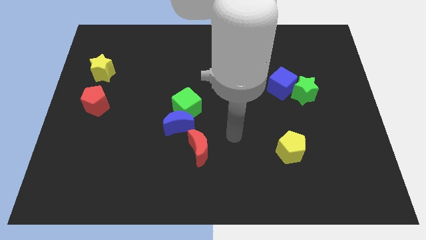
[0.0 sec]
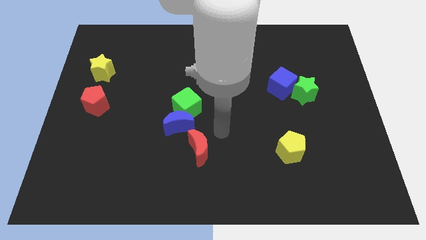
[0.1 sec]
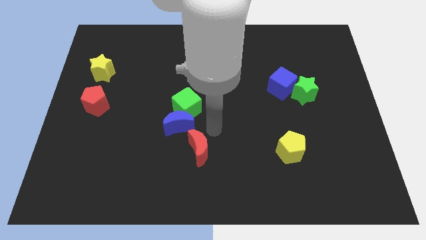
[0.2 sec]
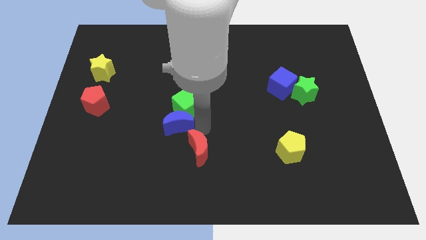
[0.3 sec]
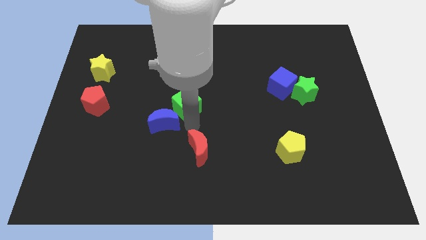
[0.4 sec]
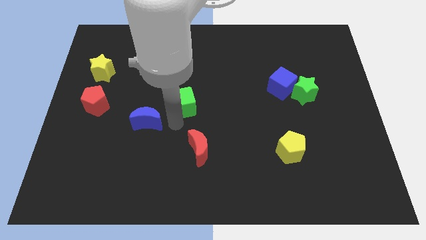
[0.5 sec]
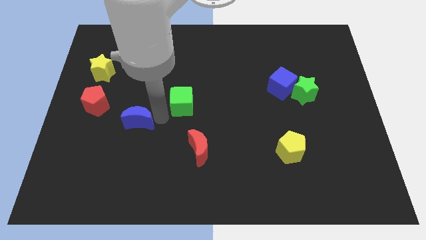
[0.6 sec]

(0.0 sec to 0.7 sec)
move the green cube away from the blue moon

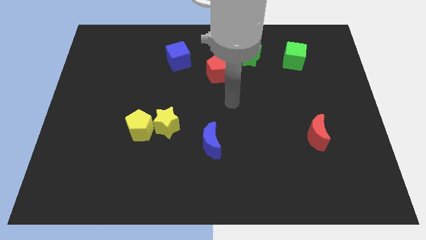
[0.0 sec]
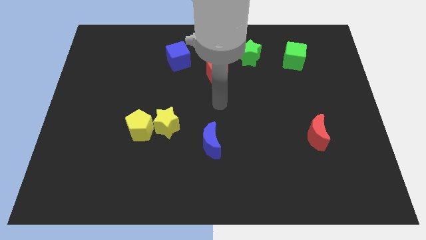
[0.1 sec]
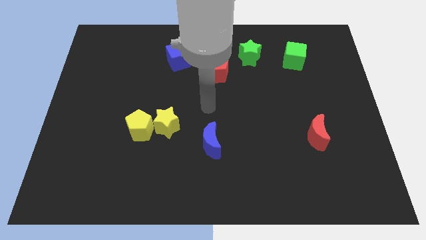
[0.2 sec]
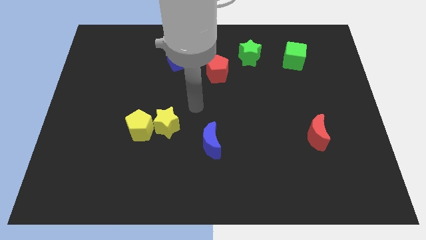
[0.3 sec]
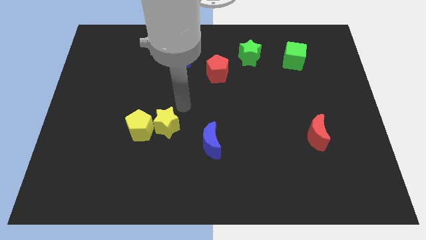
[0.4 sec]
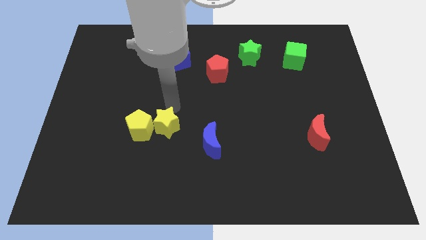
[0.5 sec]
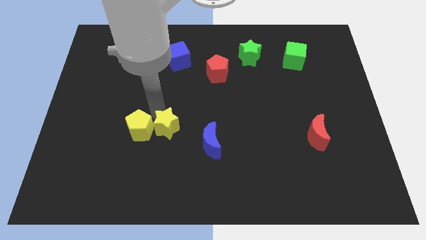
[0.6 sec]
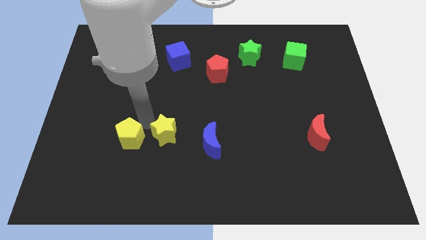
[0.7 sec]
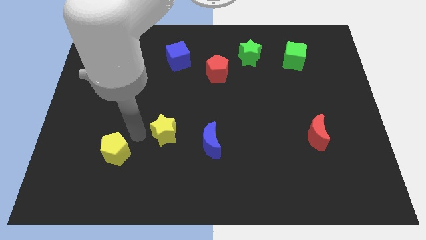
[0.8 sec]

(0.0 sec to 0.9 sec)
separate the yellow star from the yellow pentagon

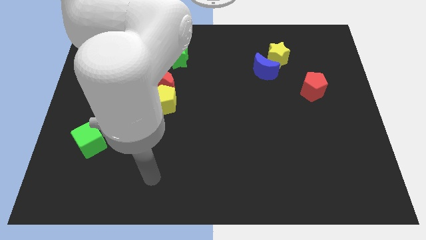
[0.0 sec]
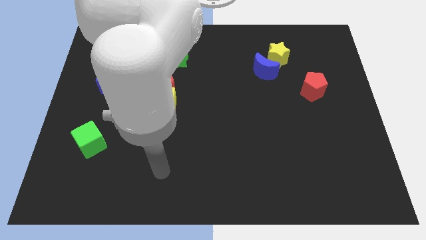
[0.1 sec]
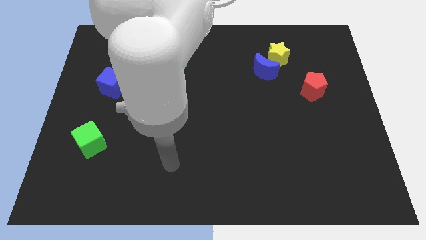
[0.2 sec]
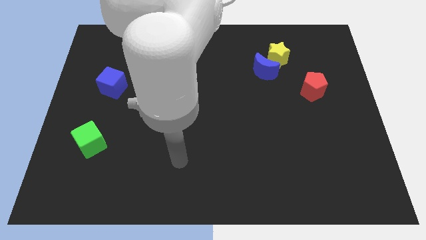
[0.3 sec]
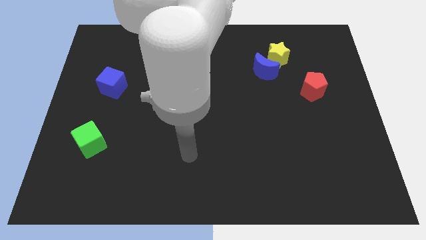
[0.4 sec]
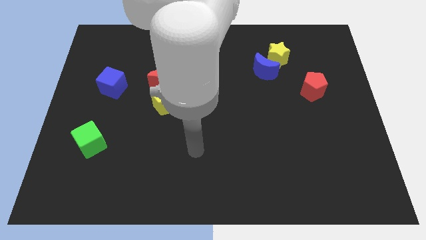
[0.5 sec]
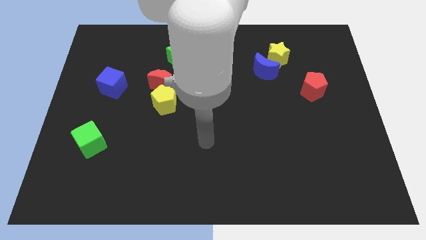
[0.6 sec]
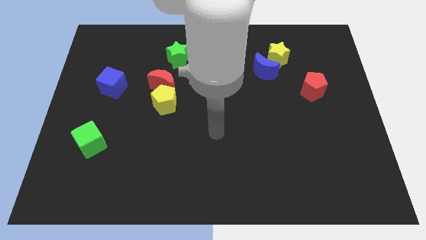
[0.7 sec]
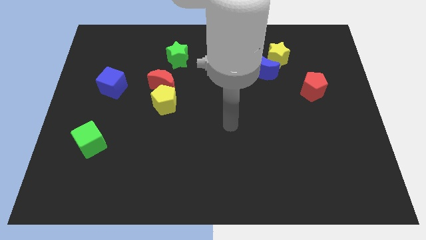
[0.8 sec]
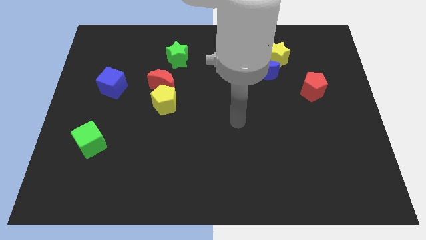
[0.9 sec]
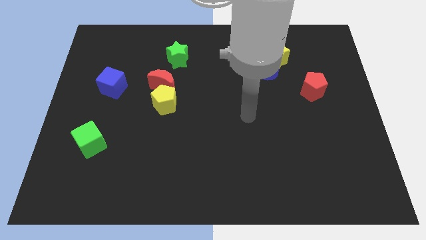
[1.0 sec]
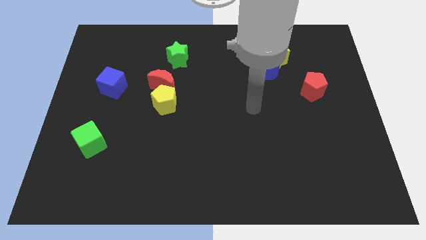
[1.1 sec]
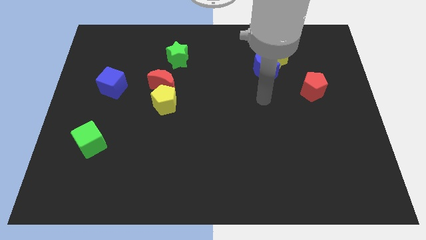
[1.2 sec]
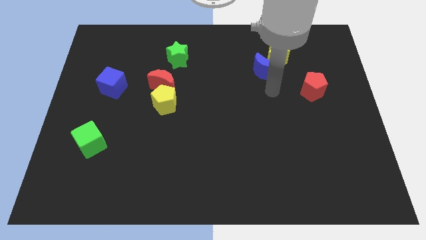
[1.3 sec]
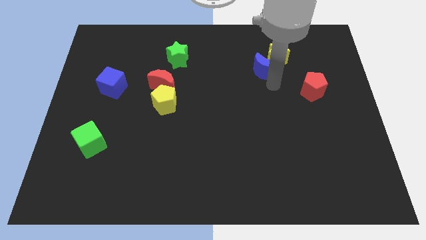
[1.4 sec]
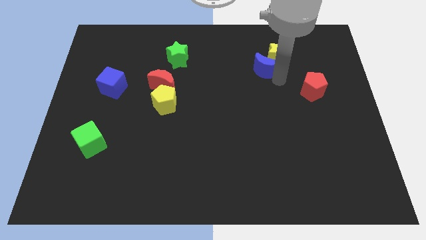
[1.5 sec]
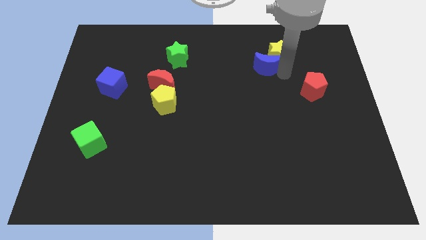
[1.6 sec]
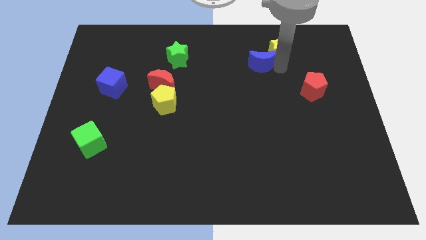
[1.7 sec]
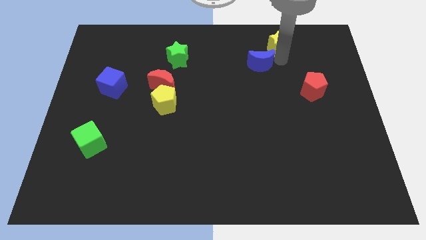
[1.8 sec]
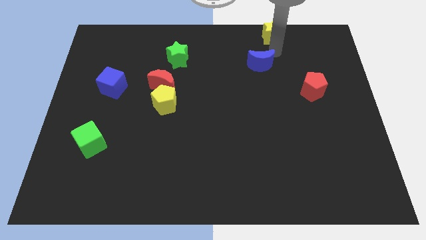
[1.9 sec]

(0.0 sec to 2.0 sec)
pull the blue moon apart from the yellow star

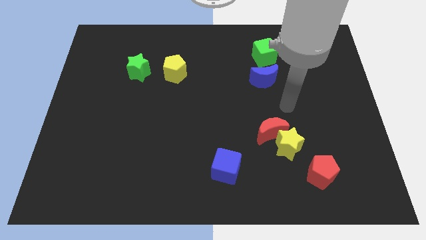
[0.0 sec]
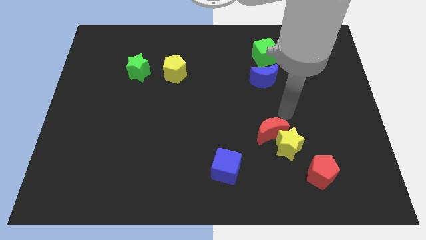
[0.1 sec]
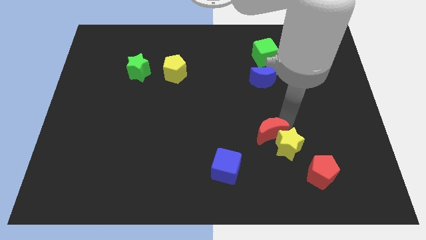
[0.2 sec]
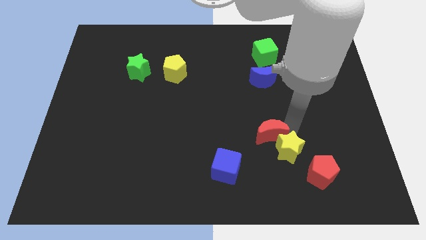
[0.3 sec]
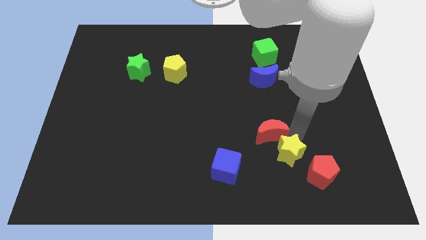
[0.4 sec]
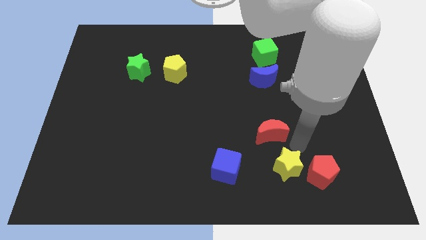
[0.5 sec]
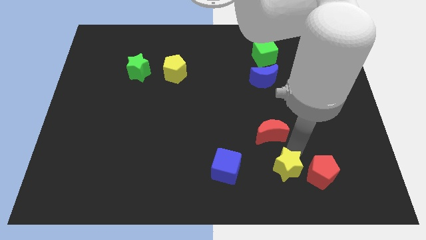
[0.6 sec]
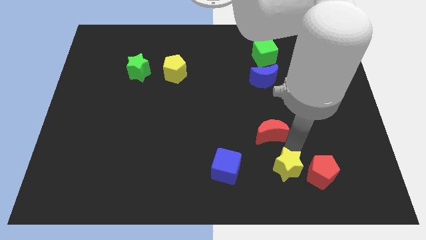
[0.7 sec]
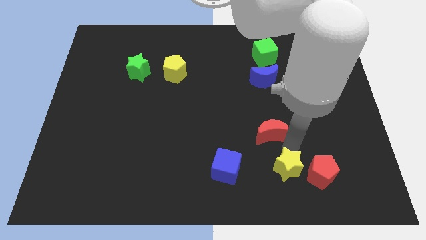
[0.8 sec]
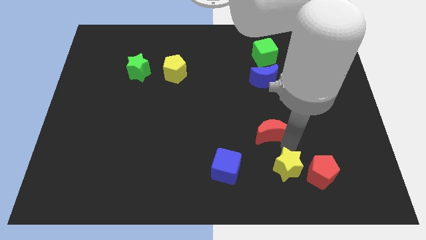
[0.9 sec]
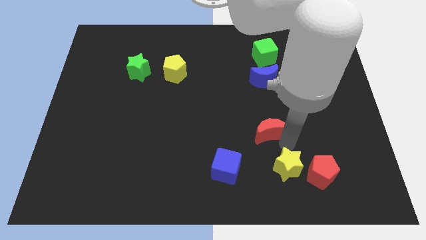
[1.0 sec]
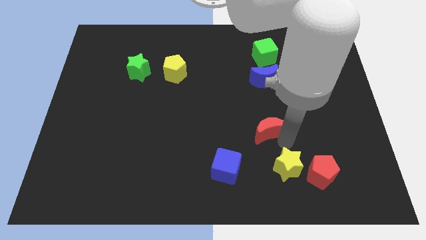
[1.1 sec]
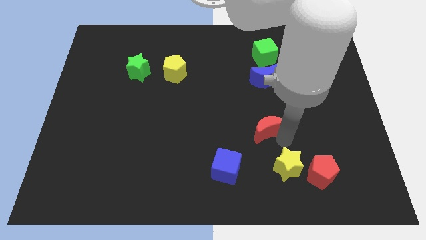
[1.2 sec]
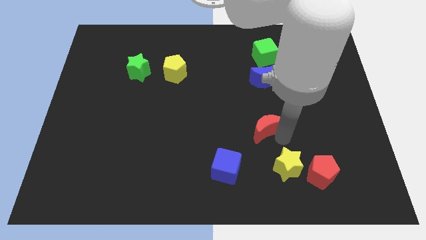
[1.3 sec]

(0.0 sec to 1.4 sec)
pull the red moon apart from the yellow star

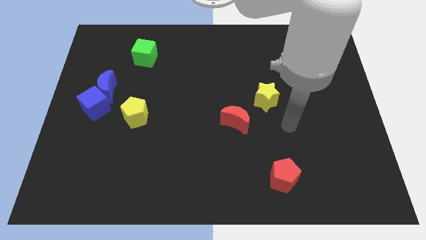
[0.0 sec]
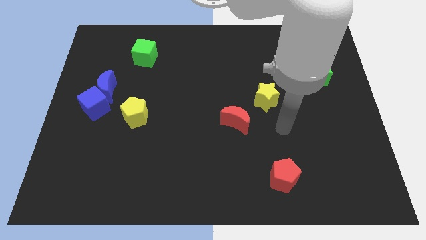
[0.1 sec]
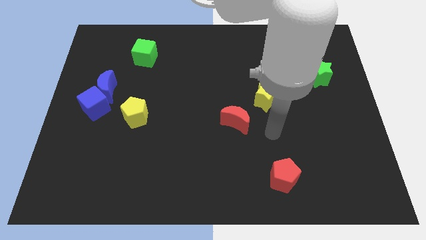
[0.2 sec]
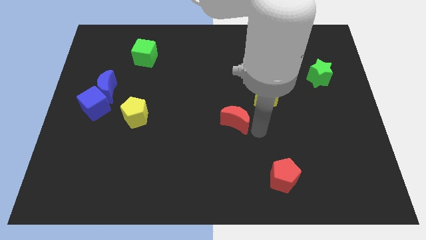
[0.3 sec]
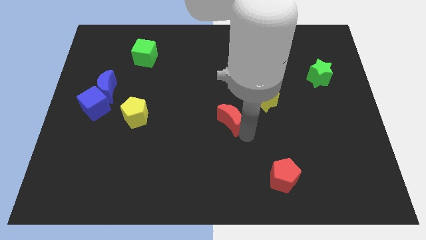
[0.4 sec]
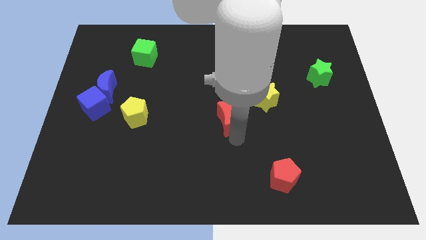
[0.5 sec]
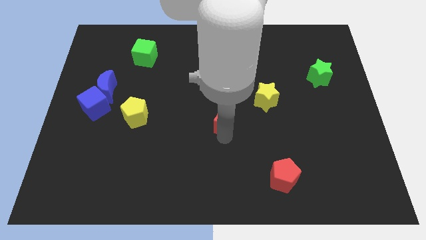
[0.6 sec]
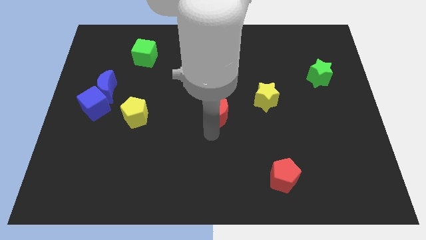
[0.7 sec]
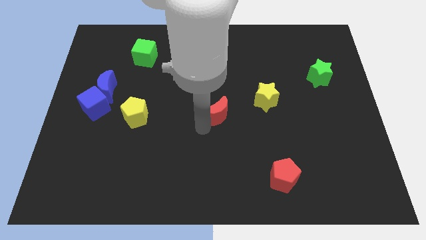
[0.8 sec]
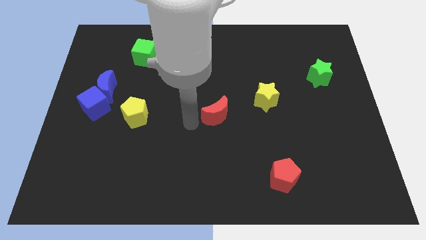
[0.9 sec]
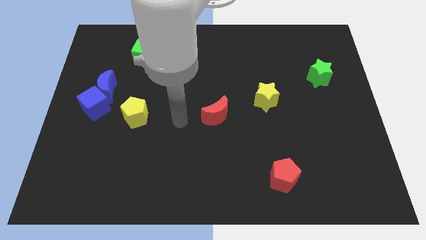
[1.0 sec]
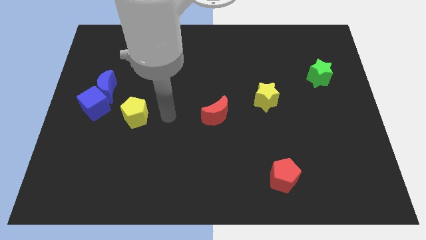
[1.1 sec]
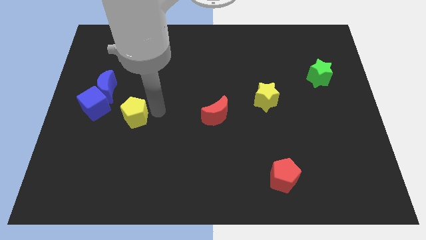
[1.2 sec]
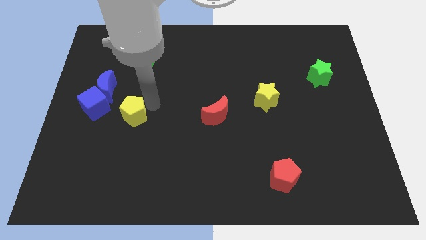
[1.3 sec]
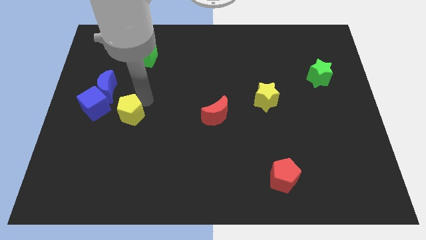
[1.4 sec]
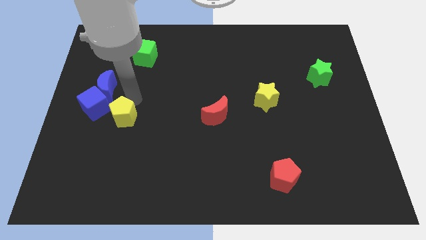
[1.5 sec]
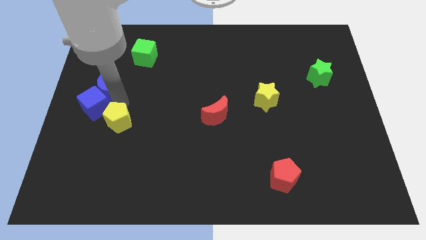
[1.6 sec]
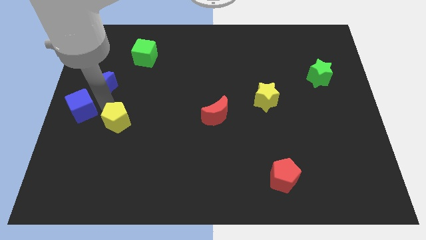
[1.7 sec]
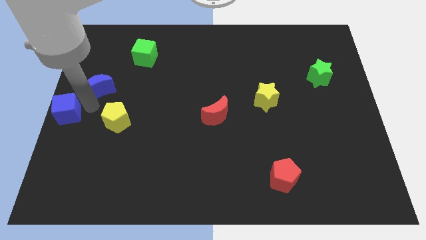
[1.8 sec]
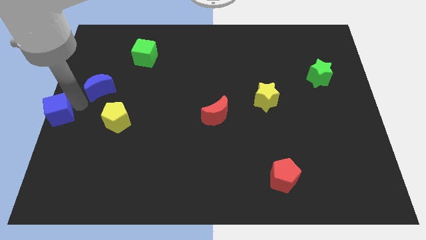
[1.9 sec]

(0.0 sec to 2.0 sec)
move the blue moon away from the blue cube

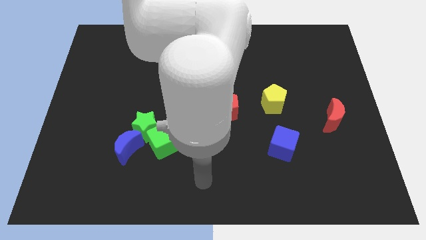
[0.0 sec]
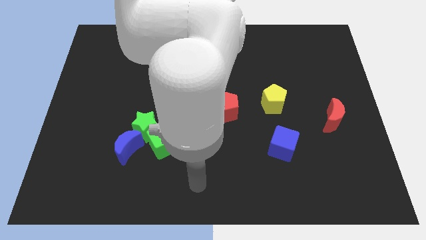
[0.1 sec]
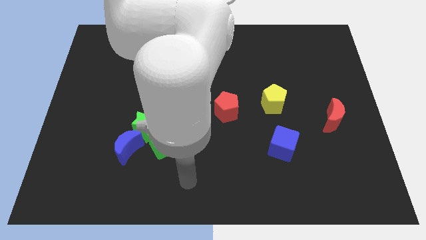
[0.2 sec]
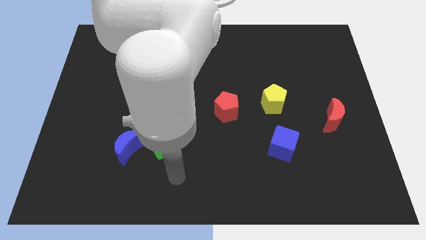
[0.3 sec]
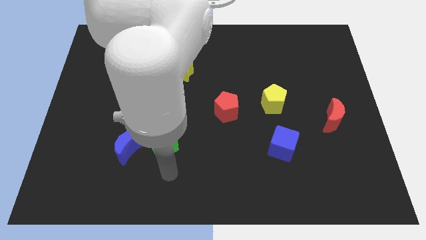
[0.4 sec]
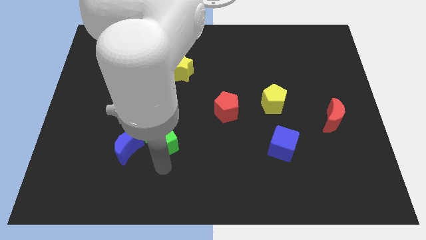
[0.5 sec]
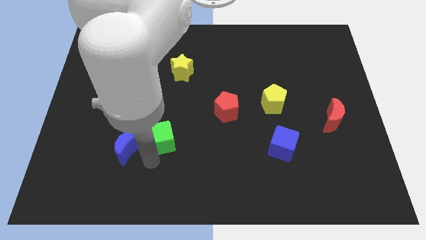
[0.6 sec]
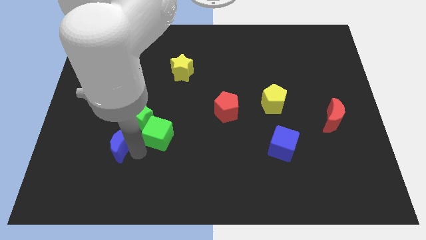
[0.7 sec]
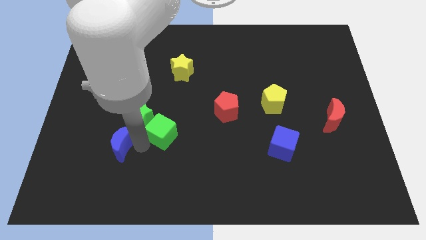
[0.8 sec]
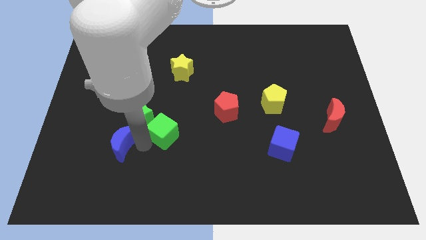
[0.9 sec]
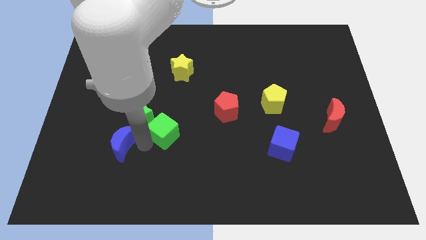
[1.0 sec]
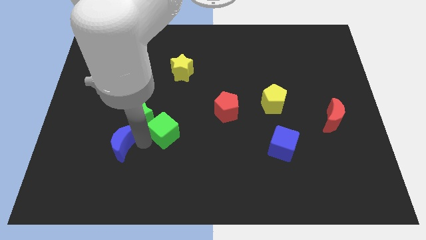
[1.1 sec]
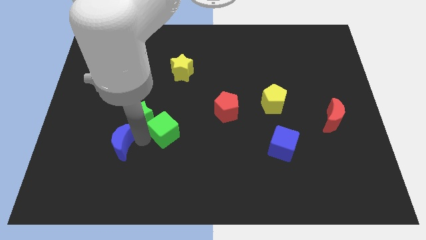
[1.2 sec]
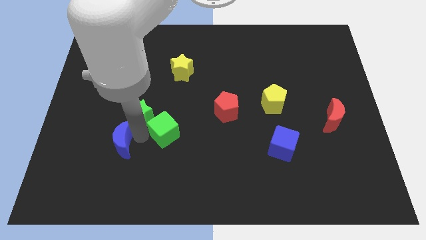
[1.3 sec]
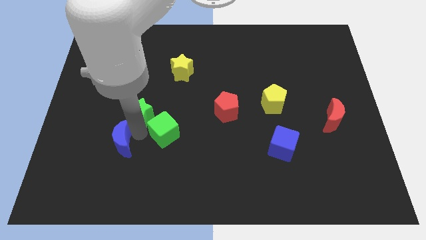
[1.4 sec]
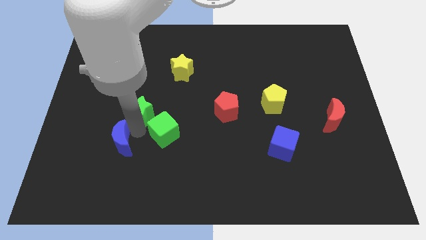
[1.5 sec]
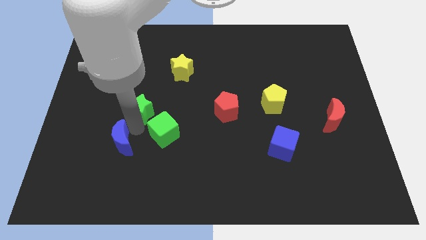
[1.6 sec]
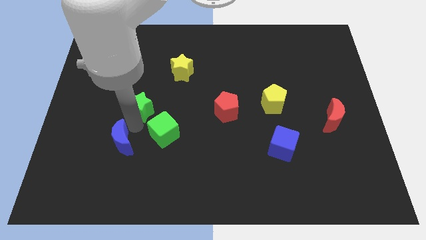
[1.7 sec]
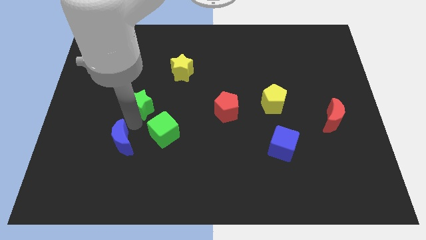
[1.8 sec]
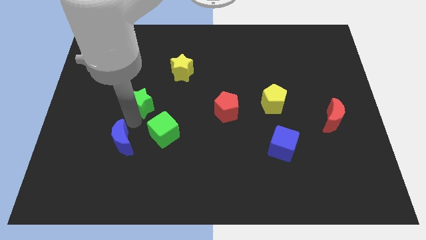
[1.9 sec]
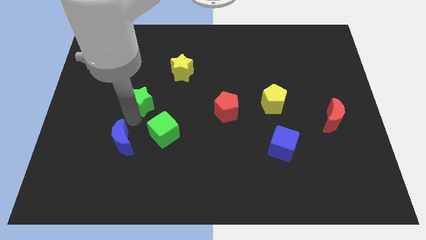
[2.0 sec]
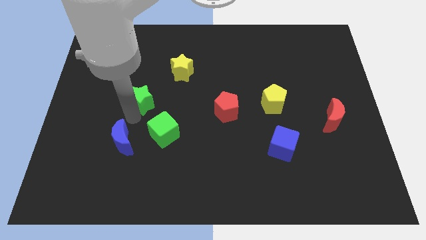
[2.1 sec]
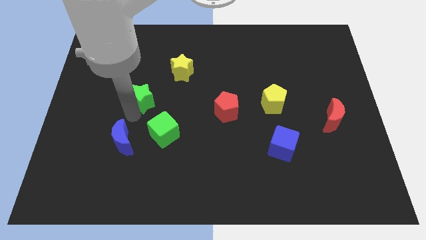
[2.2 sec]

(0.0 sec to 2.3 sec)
separate the green star from the green cube and blue moon
